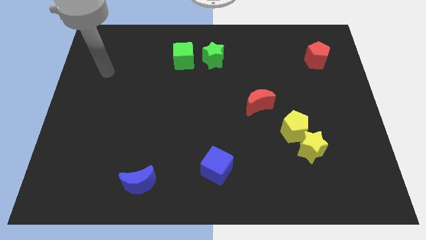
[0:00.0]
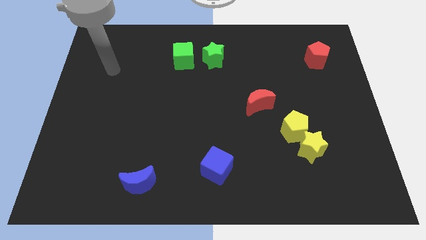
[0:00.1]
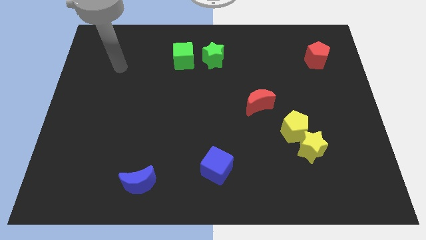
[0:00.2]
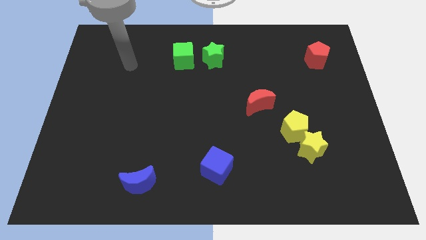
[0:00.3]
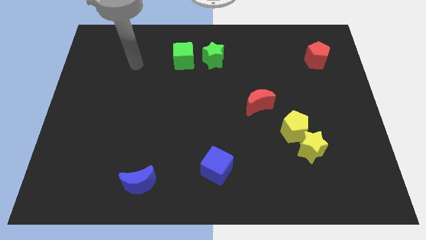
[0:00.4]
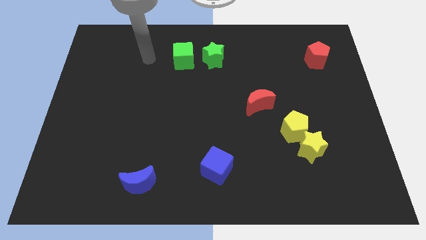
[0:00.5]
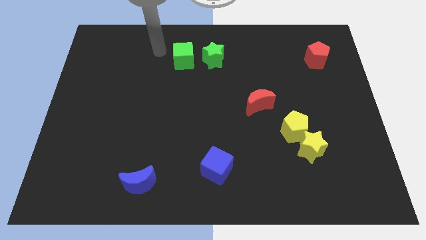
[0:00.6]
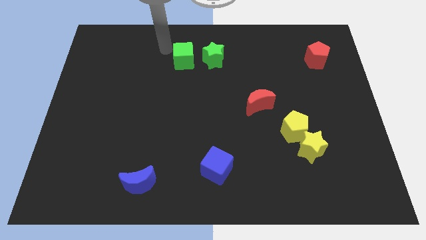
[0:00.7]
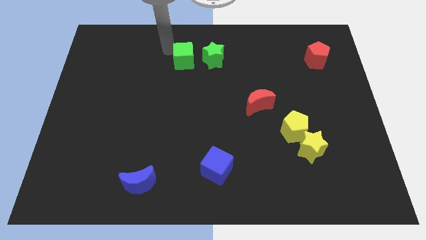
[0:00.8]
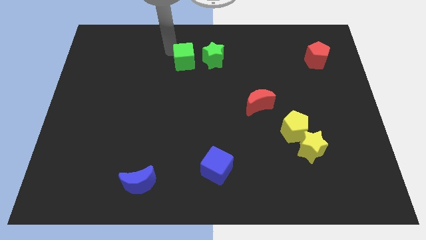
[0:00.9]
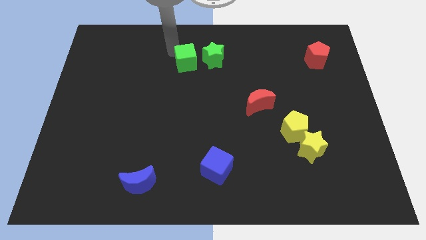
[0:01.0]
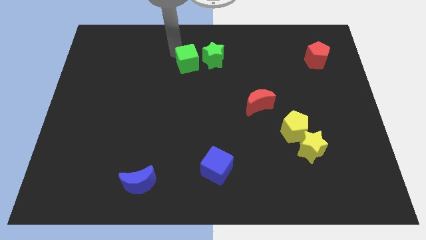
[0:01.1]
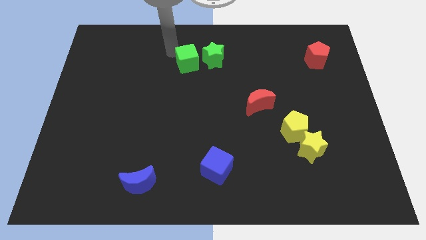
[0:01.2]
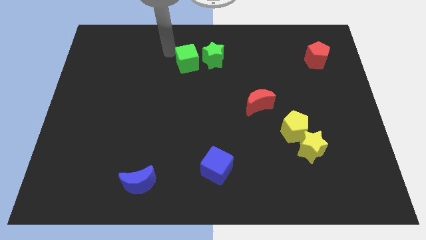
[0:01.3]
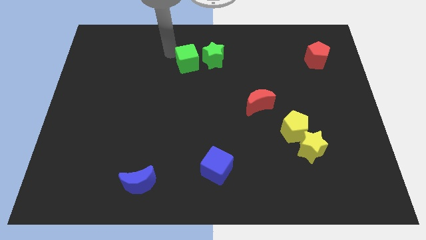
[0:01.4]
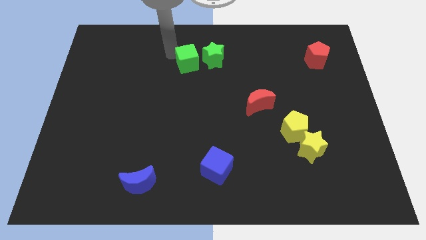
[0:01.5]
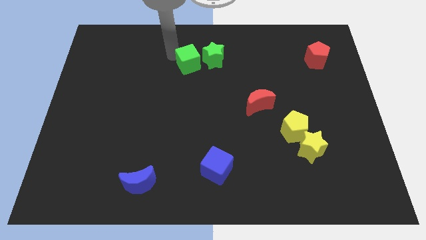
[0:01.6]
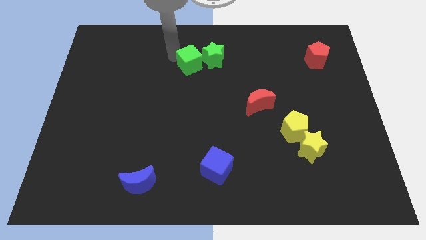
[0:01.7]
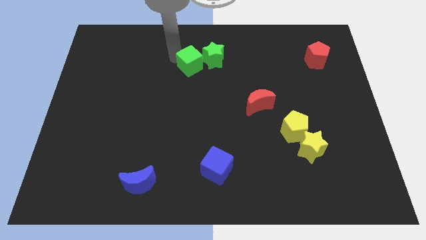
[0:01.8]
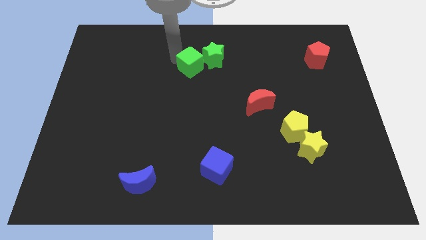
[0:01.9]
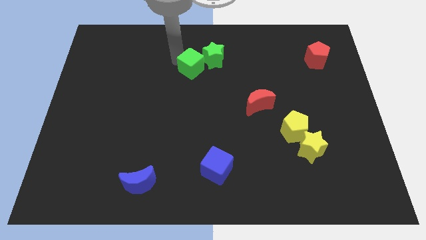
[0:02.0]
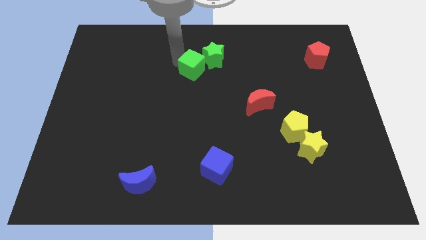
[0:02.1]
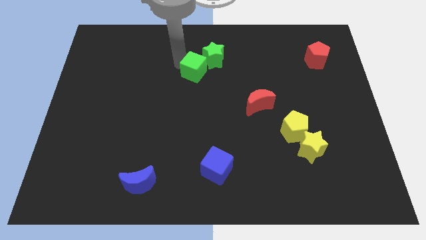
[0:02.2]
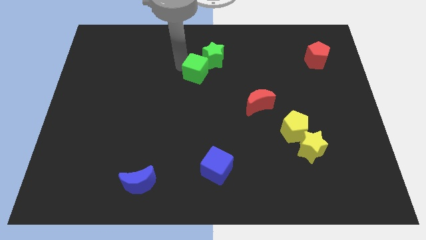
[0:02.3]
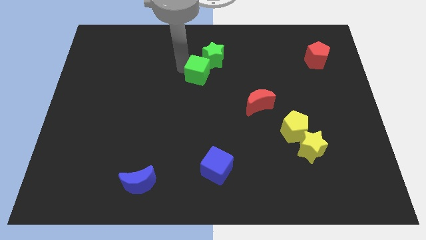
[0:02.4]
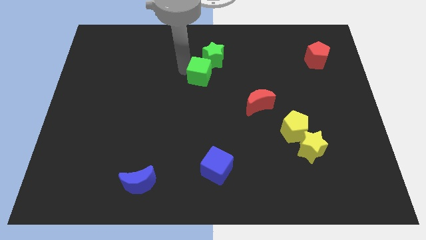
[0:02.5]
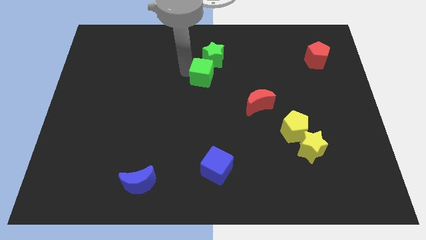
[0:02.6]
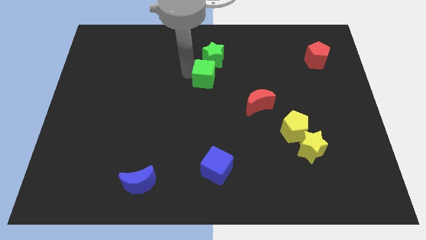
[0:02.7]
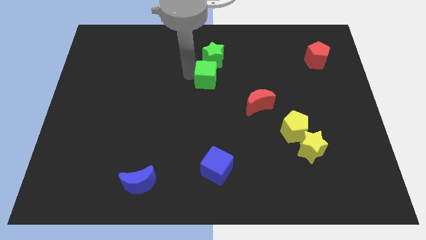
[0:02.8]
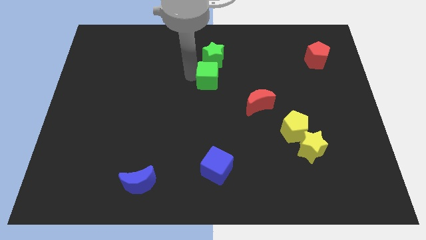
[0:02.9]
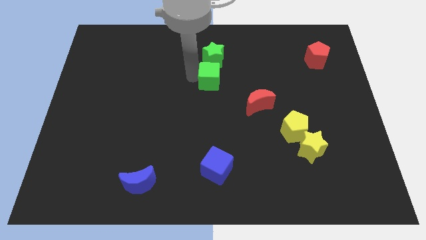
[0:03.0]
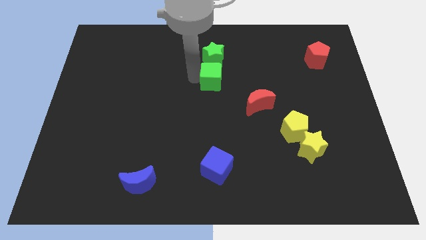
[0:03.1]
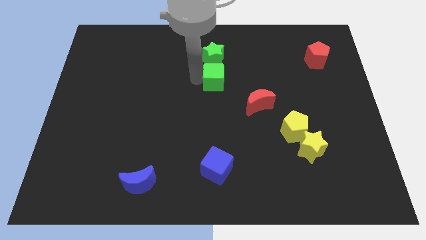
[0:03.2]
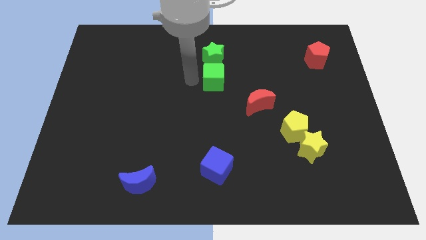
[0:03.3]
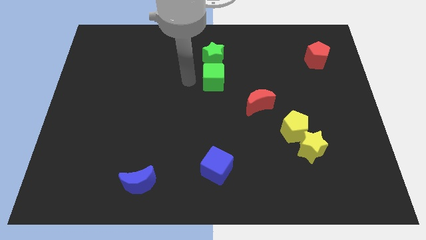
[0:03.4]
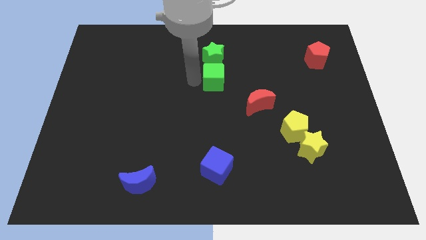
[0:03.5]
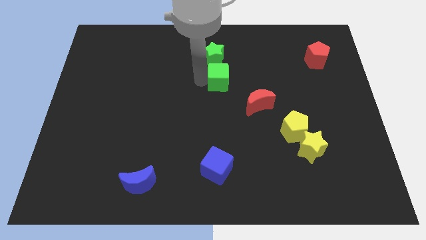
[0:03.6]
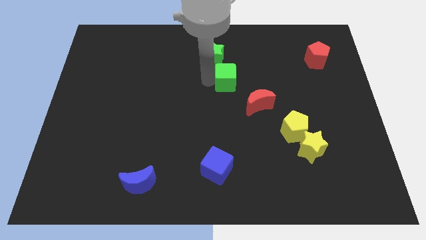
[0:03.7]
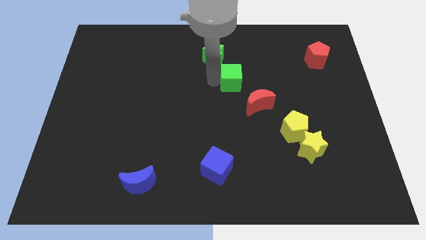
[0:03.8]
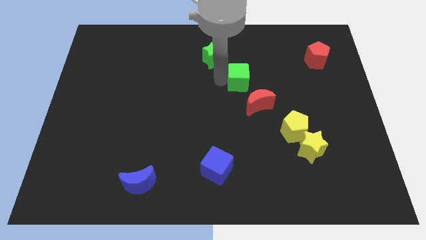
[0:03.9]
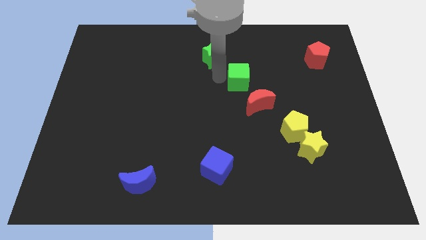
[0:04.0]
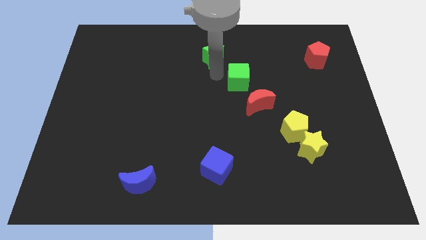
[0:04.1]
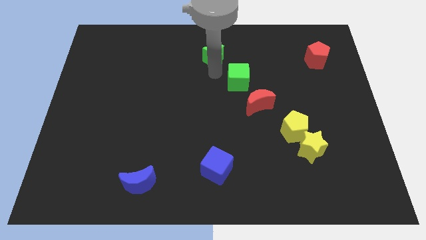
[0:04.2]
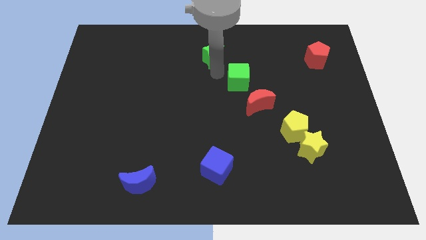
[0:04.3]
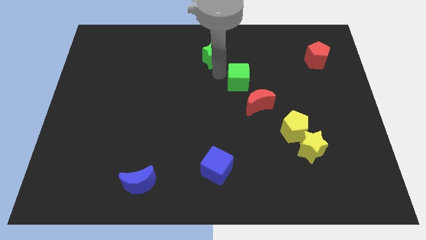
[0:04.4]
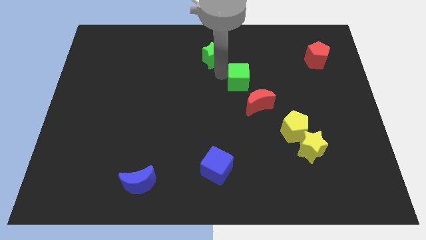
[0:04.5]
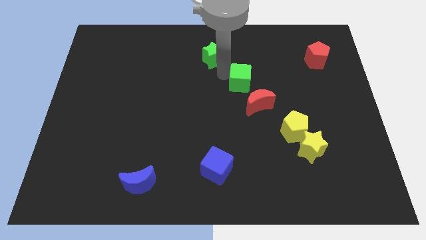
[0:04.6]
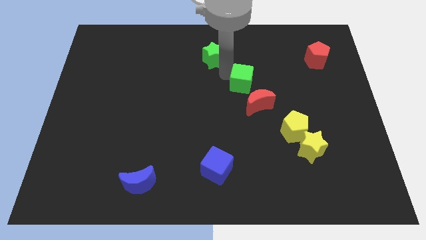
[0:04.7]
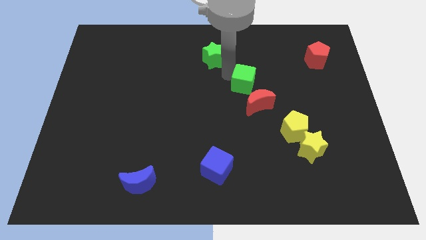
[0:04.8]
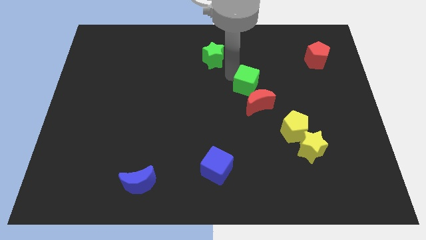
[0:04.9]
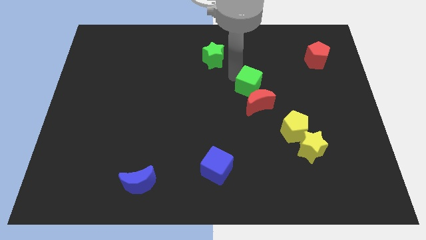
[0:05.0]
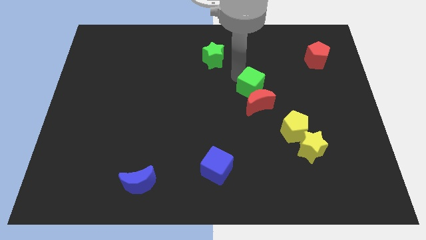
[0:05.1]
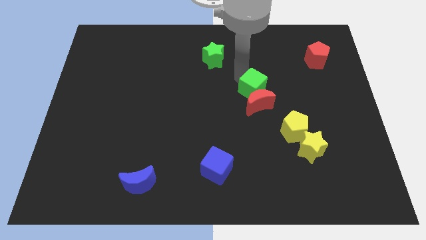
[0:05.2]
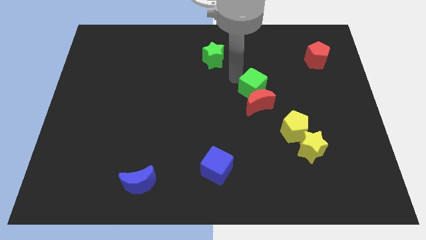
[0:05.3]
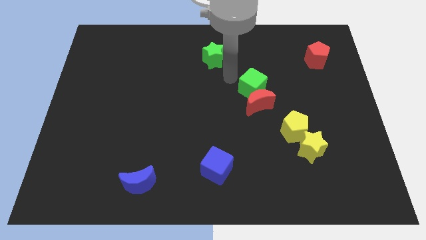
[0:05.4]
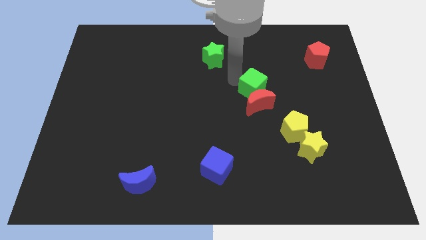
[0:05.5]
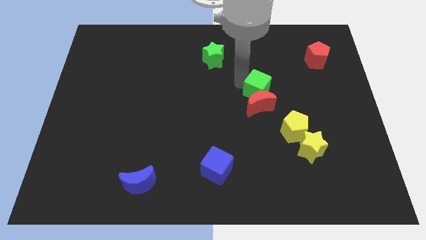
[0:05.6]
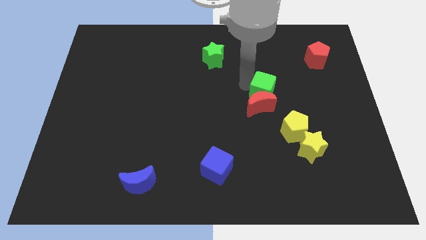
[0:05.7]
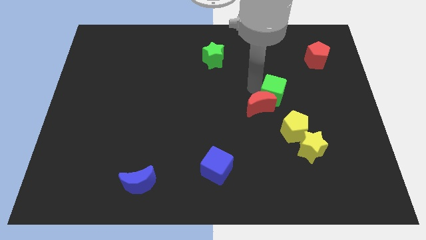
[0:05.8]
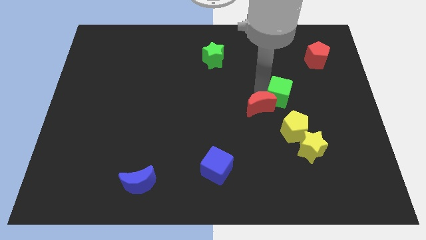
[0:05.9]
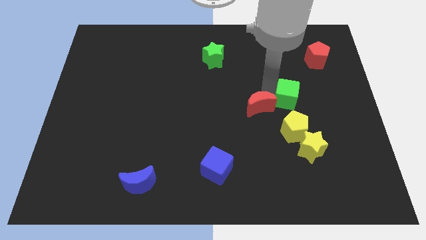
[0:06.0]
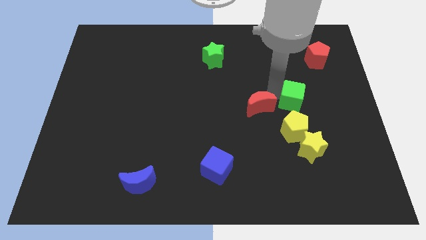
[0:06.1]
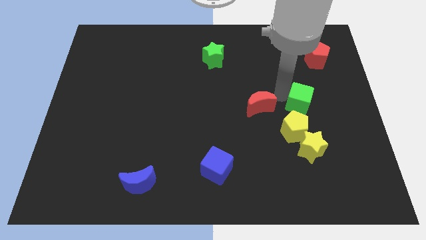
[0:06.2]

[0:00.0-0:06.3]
move the green cube diagonally up and to the right of the yellow pentagon

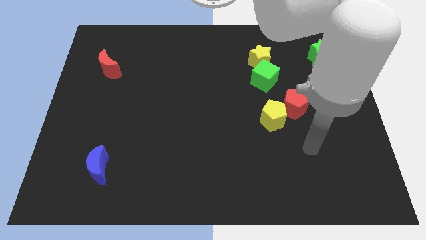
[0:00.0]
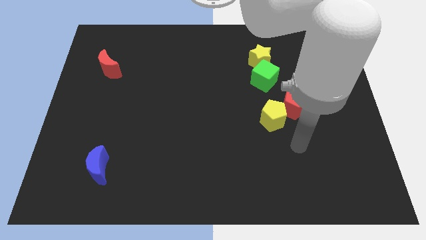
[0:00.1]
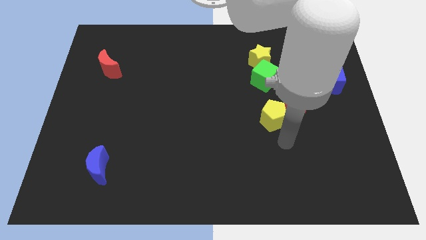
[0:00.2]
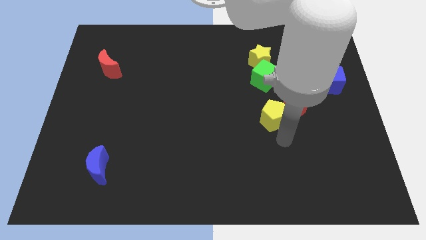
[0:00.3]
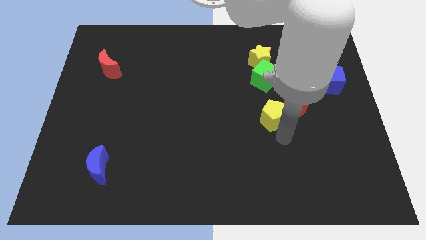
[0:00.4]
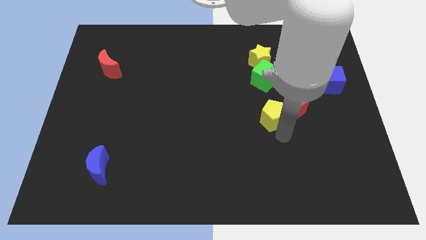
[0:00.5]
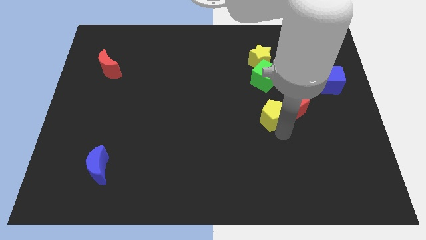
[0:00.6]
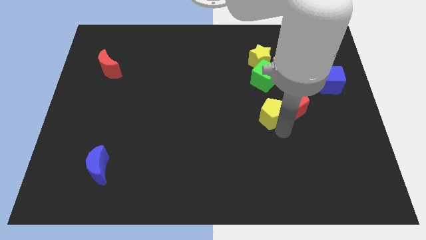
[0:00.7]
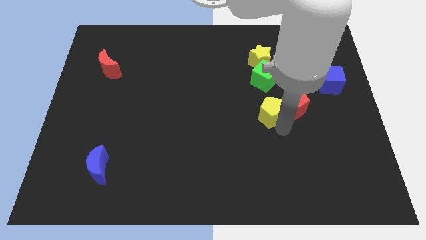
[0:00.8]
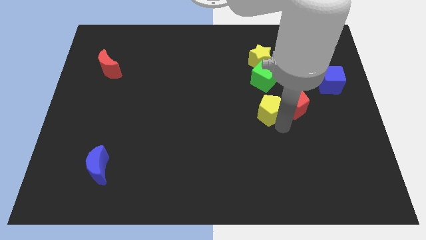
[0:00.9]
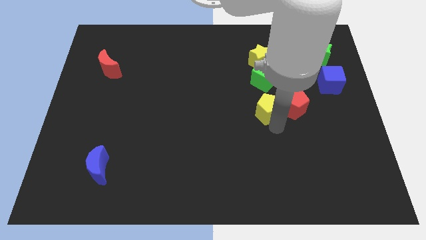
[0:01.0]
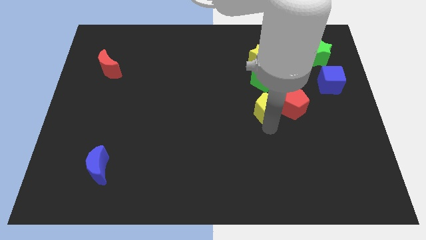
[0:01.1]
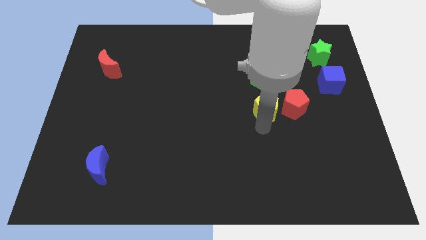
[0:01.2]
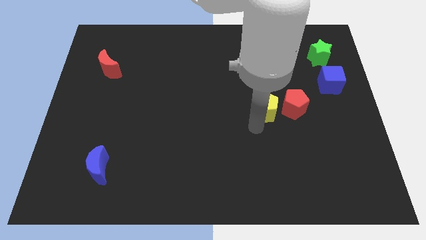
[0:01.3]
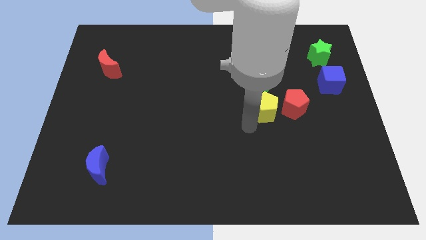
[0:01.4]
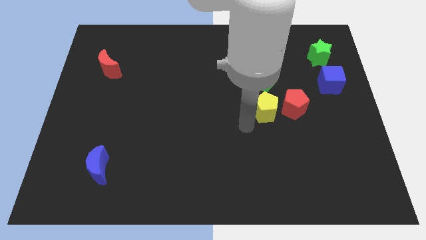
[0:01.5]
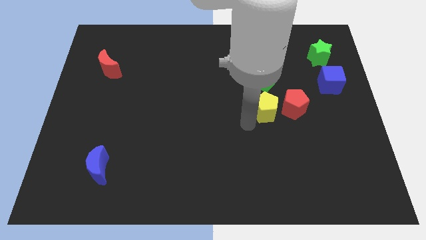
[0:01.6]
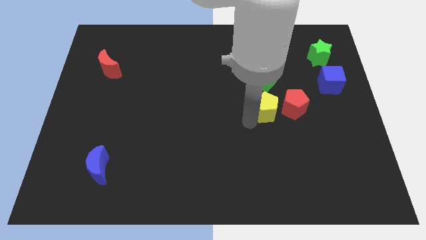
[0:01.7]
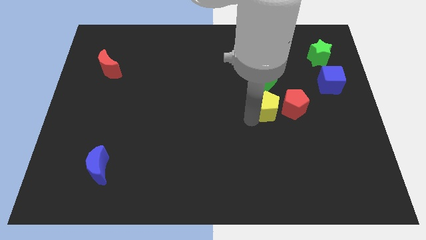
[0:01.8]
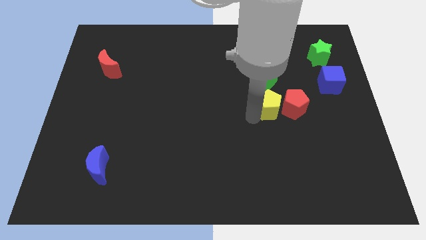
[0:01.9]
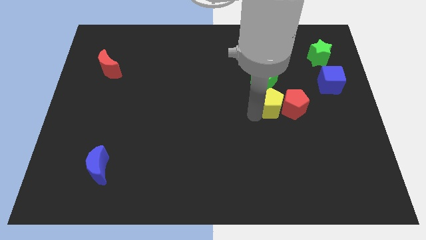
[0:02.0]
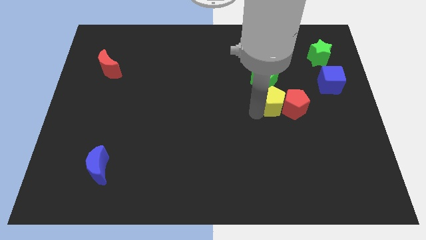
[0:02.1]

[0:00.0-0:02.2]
push the yellow pentagon to the bottom right of the green cube
